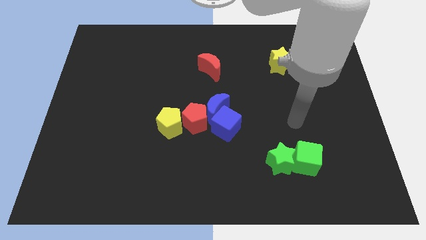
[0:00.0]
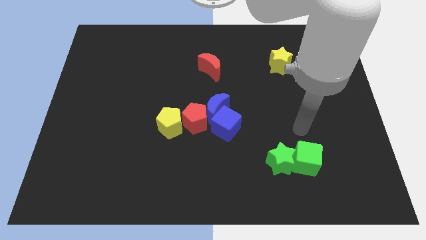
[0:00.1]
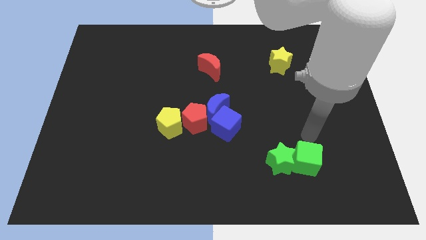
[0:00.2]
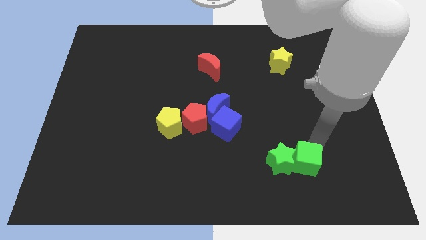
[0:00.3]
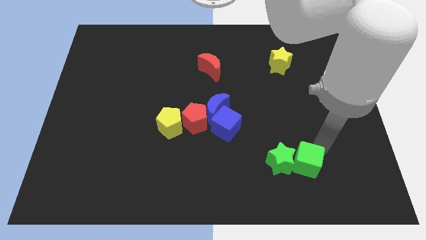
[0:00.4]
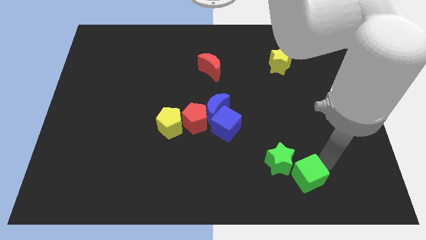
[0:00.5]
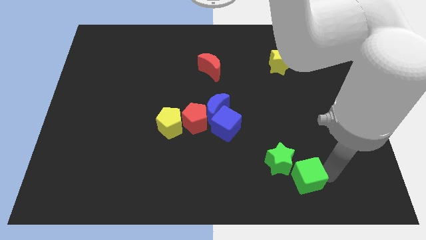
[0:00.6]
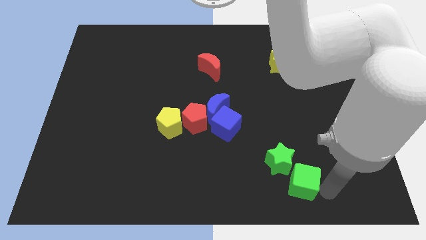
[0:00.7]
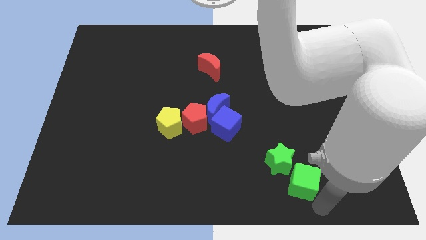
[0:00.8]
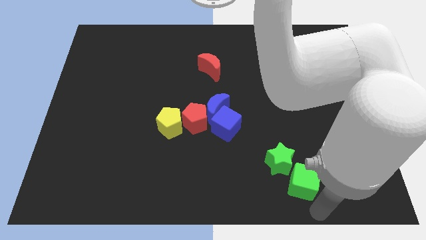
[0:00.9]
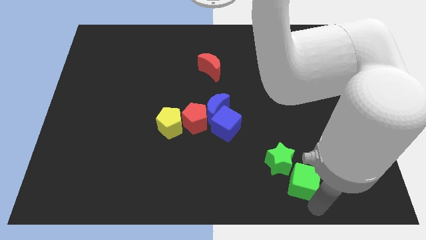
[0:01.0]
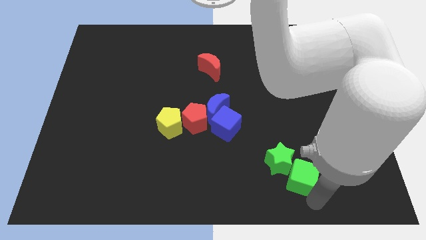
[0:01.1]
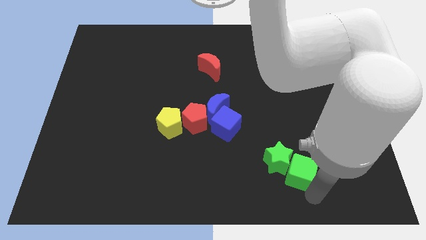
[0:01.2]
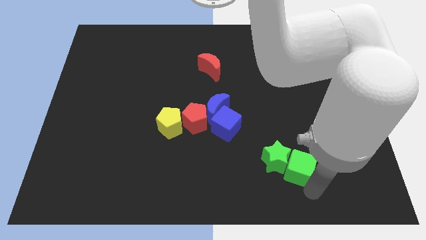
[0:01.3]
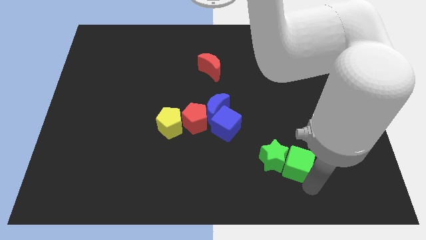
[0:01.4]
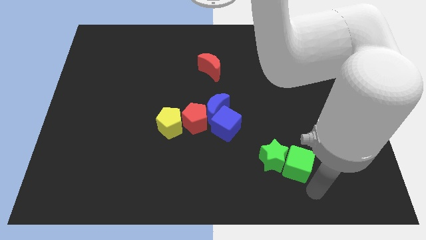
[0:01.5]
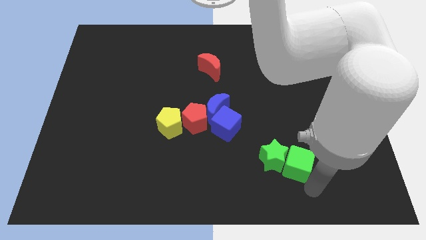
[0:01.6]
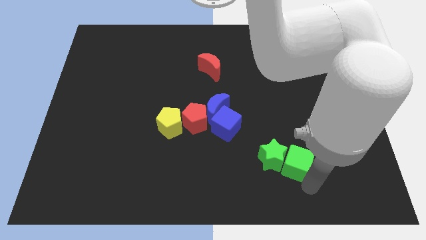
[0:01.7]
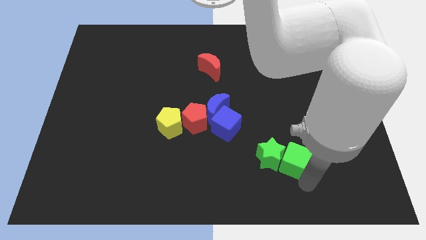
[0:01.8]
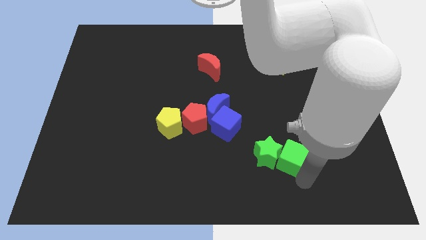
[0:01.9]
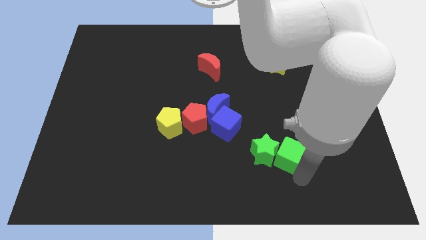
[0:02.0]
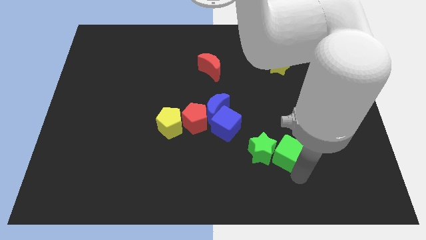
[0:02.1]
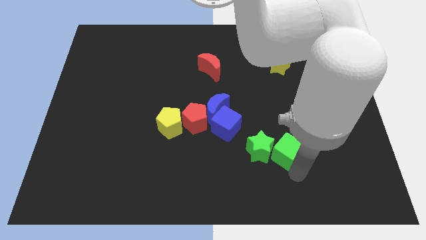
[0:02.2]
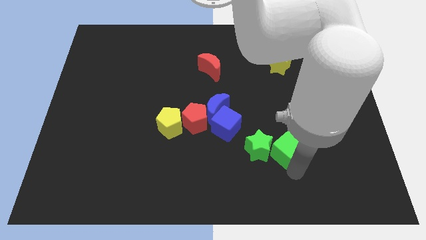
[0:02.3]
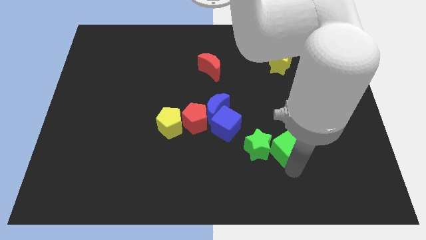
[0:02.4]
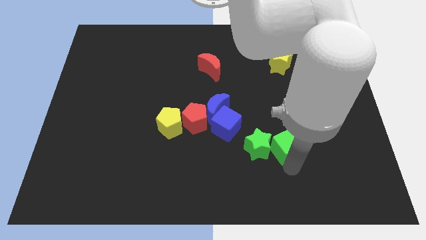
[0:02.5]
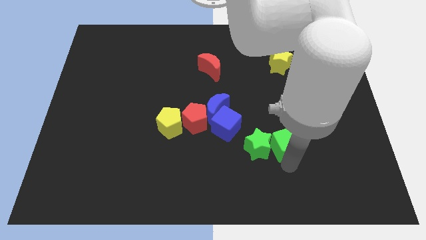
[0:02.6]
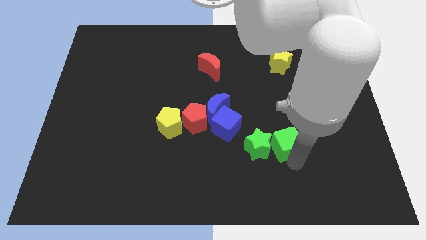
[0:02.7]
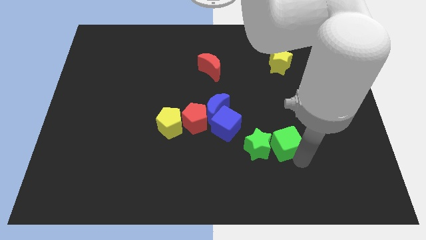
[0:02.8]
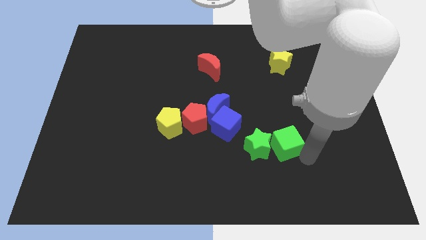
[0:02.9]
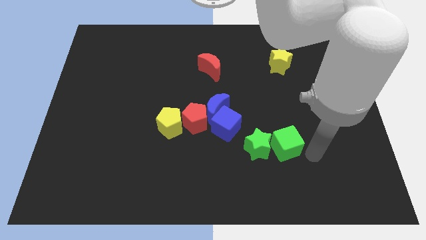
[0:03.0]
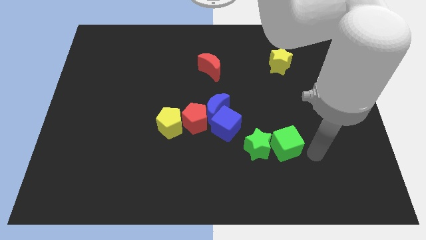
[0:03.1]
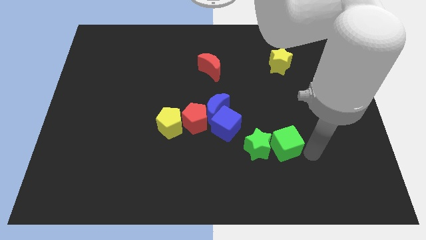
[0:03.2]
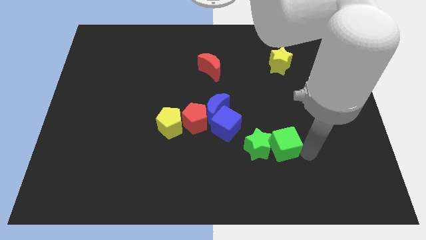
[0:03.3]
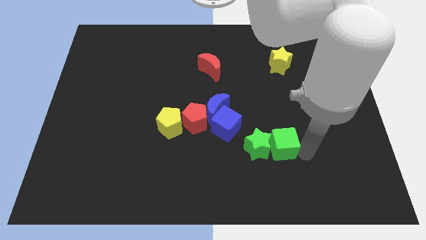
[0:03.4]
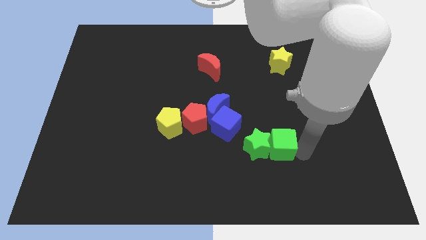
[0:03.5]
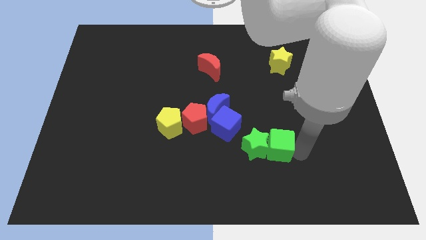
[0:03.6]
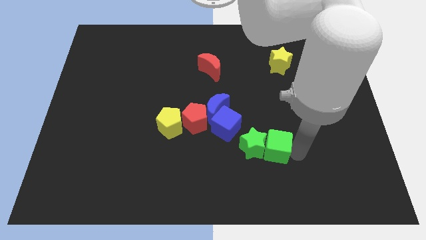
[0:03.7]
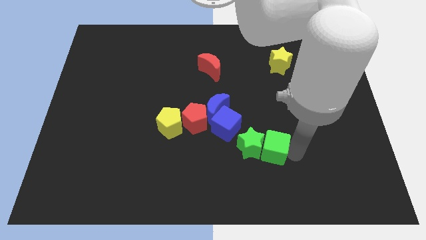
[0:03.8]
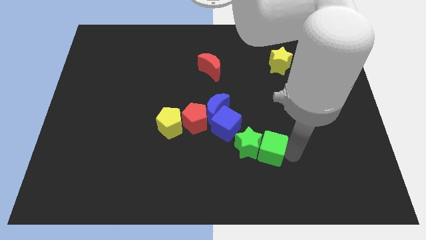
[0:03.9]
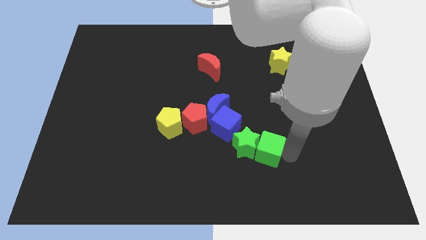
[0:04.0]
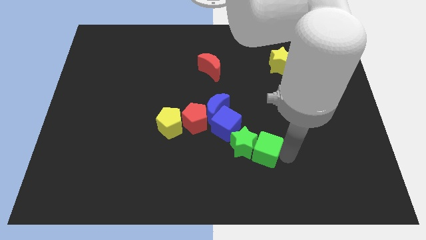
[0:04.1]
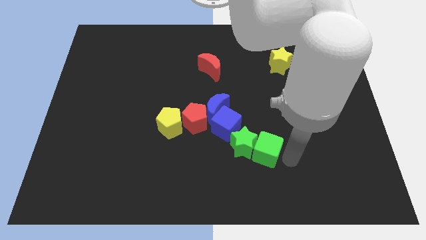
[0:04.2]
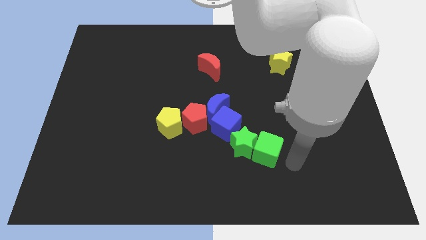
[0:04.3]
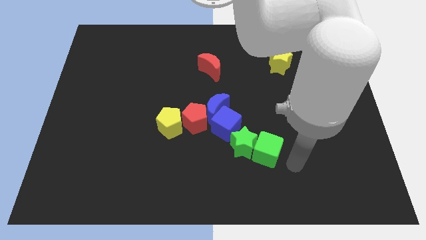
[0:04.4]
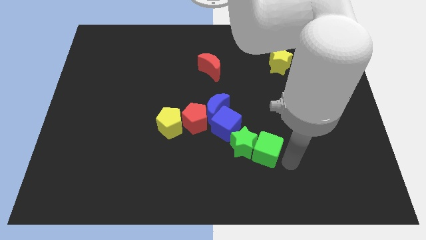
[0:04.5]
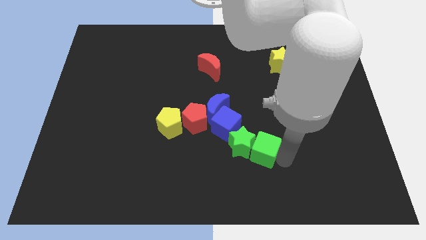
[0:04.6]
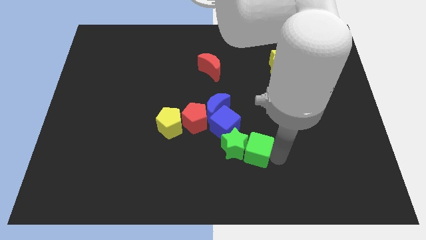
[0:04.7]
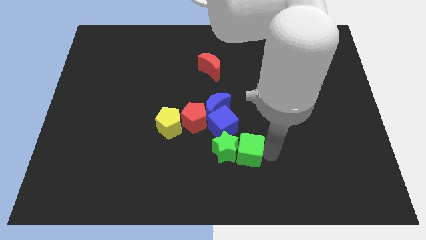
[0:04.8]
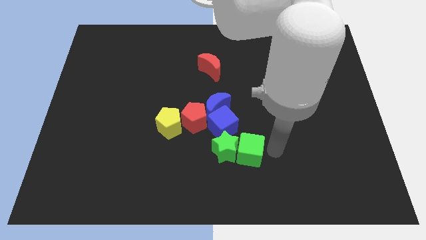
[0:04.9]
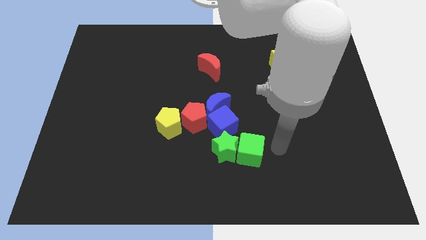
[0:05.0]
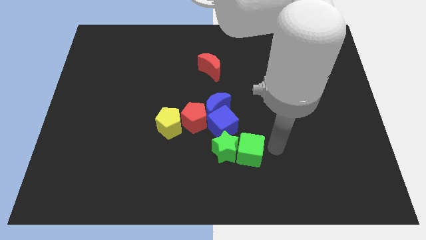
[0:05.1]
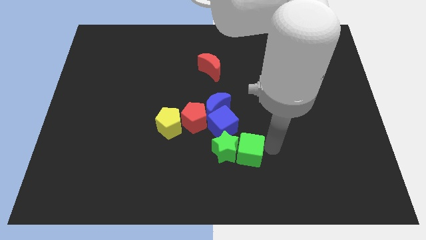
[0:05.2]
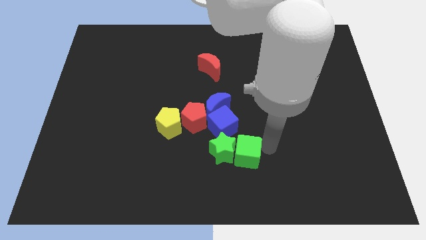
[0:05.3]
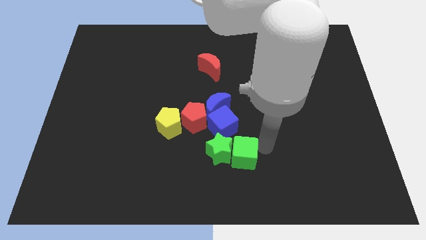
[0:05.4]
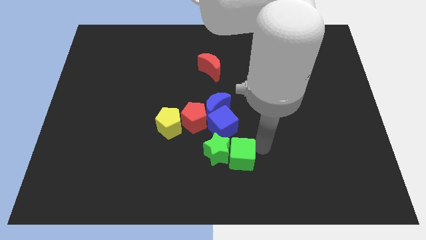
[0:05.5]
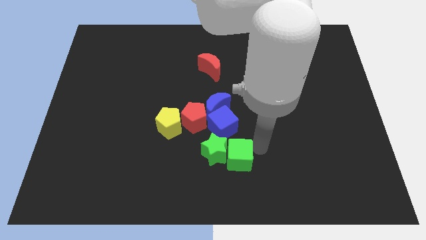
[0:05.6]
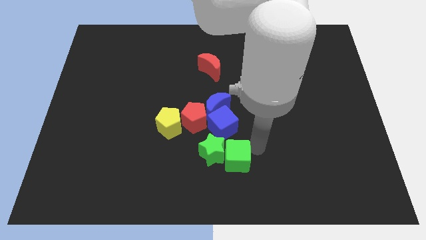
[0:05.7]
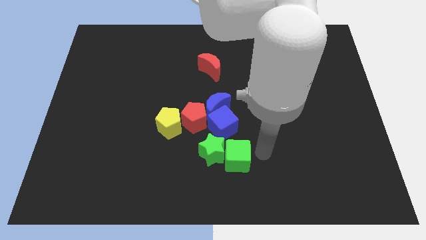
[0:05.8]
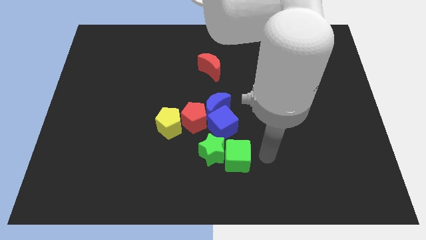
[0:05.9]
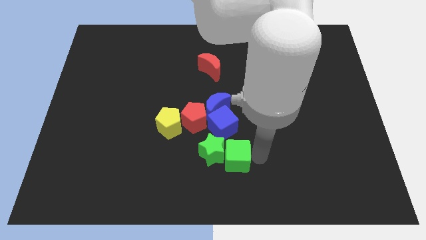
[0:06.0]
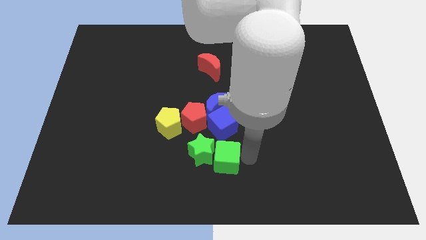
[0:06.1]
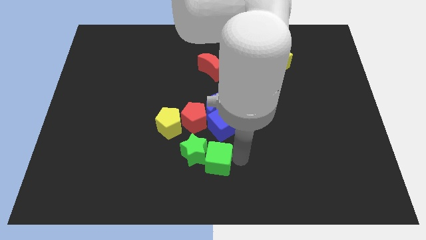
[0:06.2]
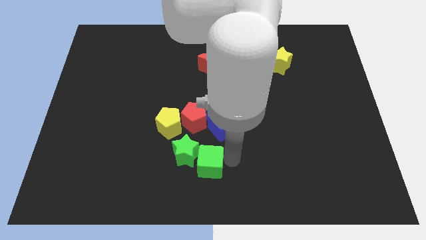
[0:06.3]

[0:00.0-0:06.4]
slide the green cube to the bottom side of the red pentagon

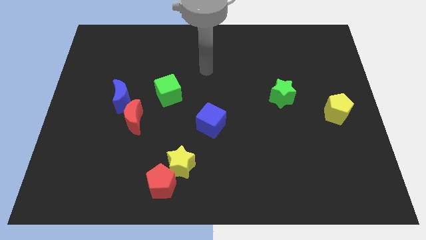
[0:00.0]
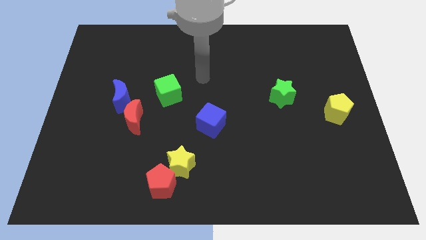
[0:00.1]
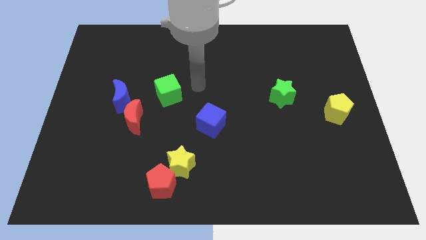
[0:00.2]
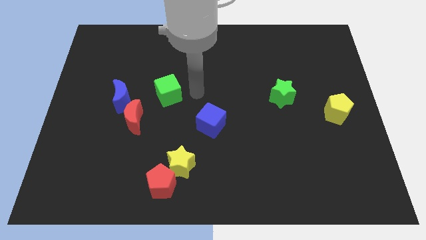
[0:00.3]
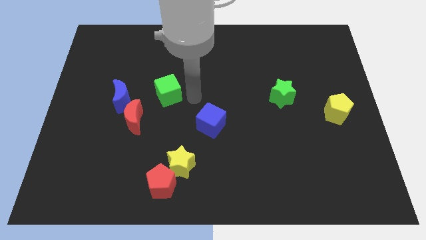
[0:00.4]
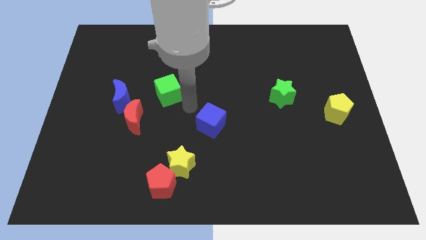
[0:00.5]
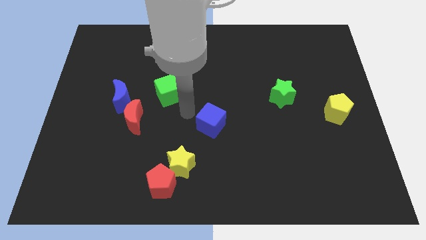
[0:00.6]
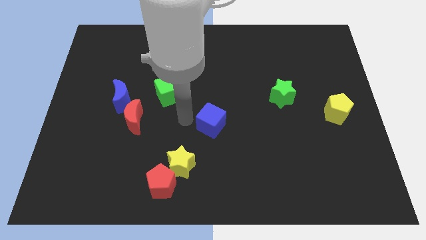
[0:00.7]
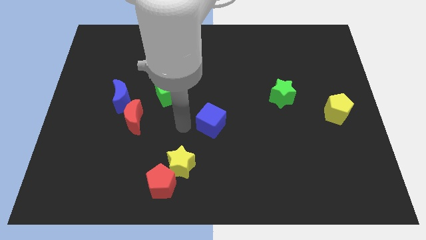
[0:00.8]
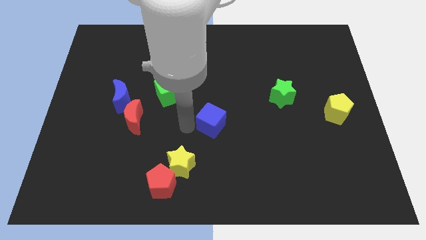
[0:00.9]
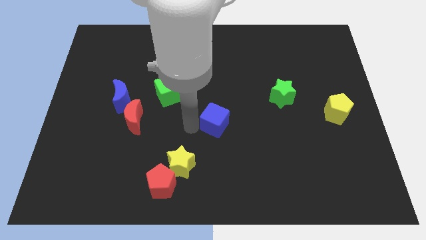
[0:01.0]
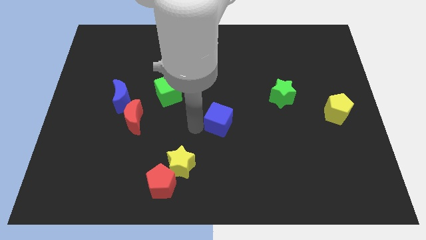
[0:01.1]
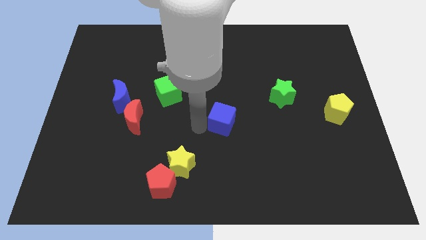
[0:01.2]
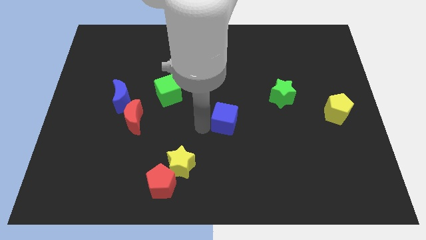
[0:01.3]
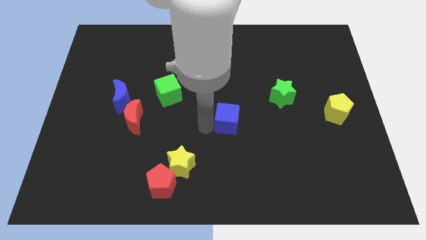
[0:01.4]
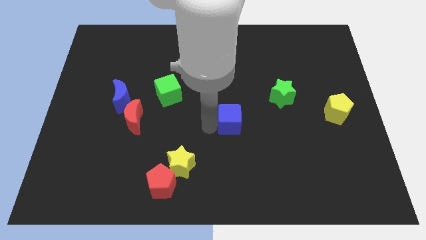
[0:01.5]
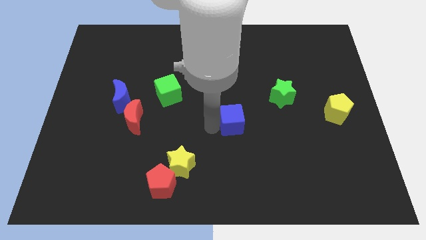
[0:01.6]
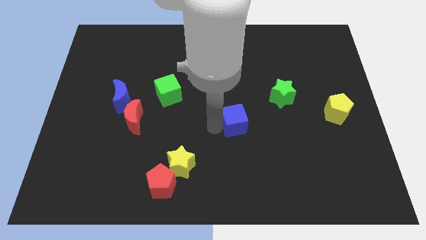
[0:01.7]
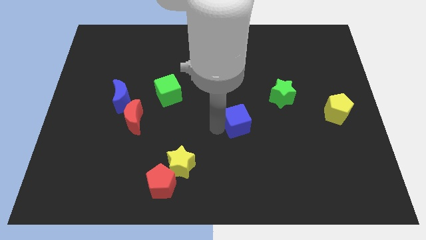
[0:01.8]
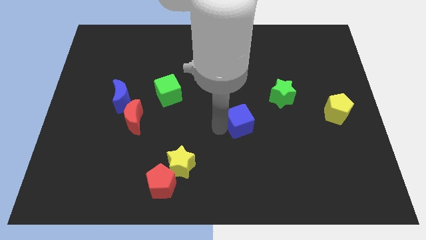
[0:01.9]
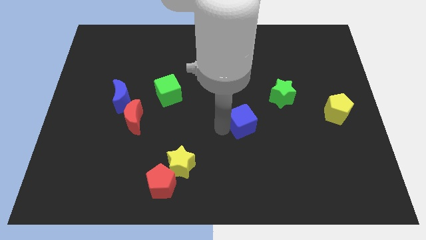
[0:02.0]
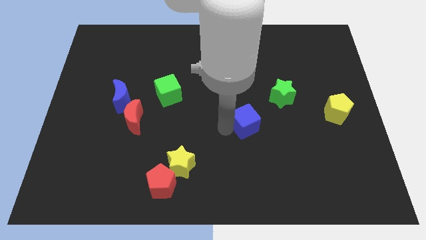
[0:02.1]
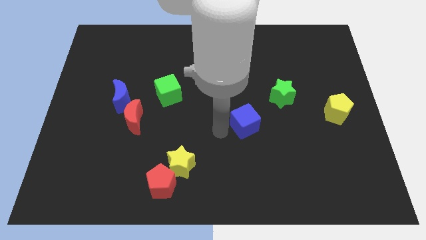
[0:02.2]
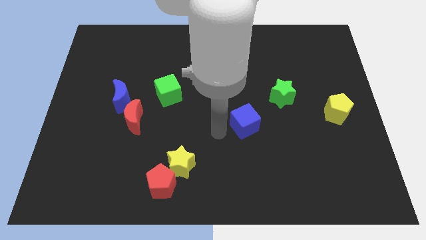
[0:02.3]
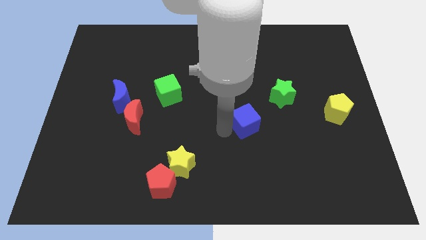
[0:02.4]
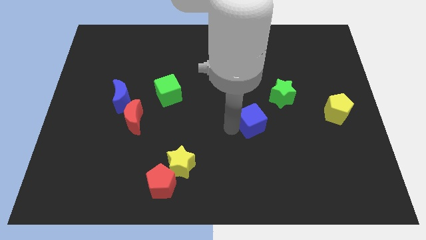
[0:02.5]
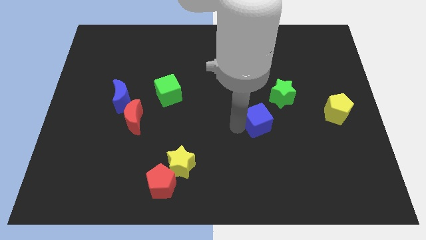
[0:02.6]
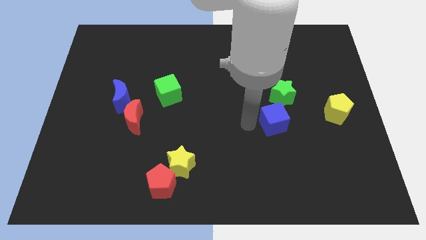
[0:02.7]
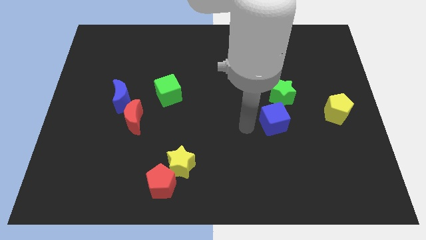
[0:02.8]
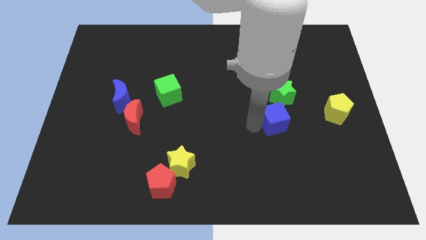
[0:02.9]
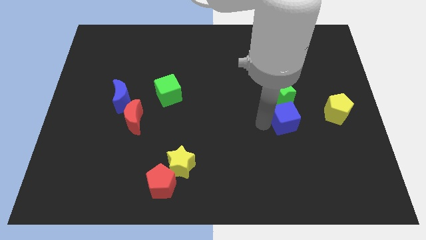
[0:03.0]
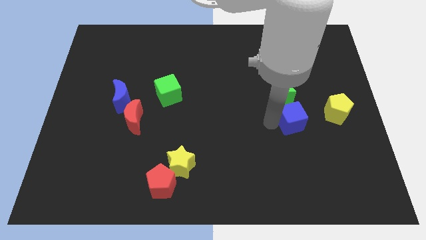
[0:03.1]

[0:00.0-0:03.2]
put the blue cube diagonally down and to the right of the green star
